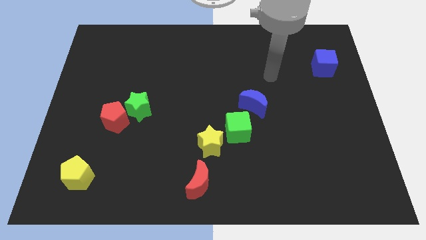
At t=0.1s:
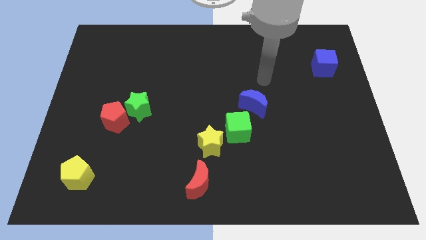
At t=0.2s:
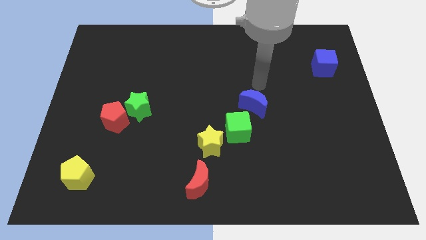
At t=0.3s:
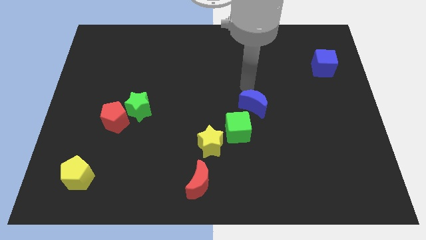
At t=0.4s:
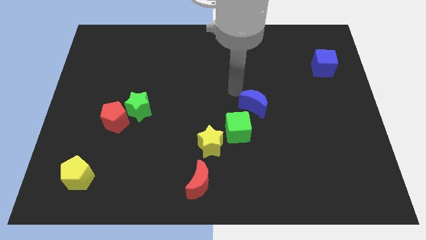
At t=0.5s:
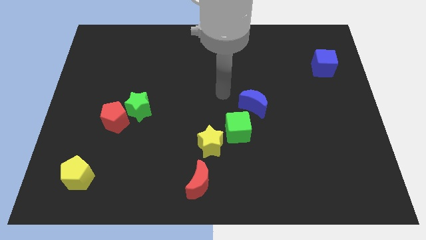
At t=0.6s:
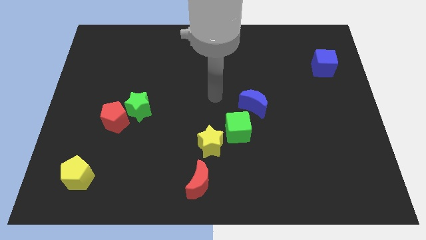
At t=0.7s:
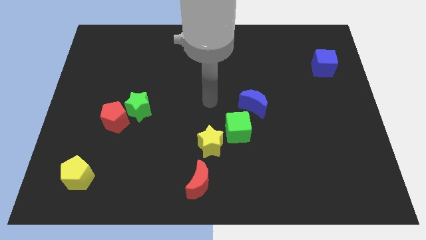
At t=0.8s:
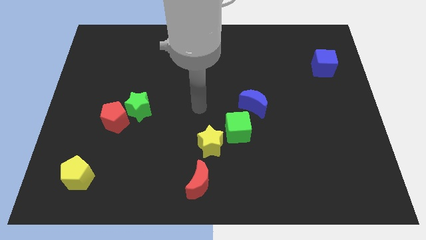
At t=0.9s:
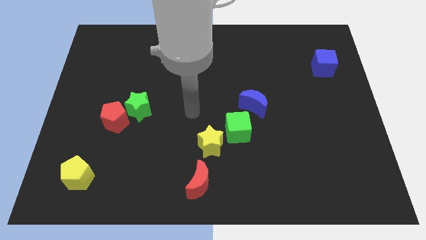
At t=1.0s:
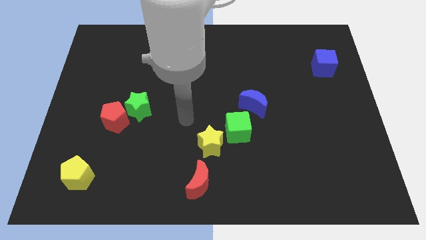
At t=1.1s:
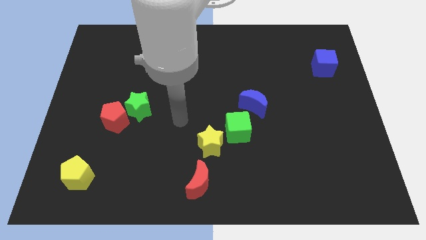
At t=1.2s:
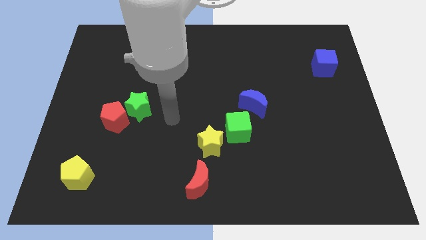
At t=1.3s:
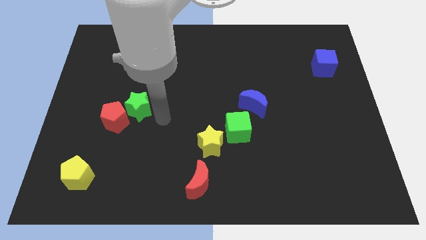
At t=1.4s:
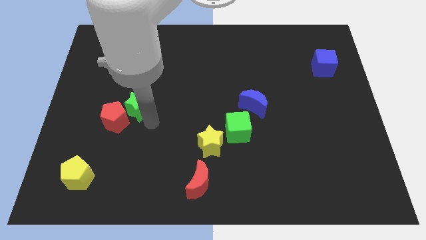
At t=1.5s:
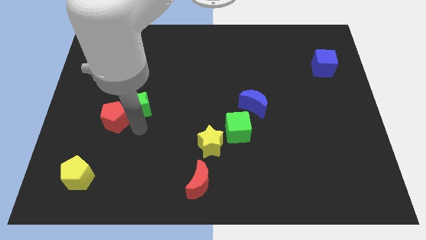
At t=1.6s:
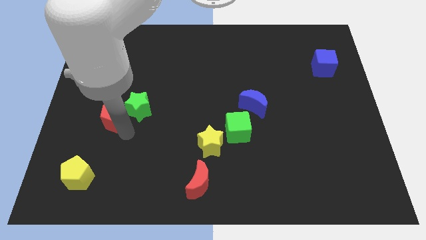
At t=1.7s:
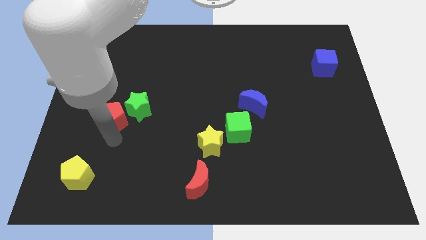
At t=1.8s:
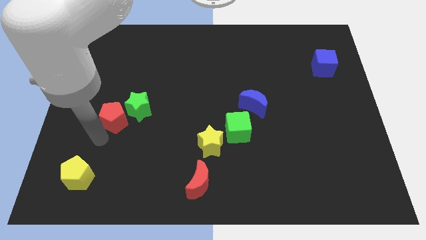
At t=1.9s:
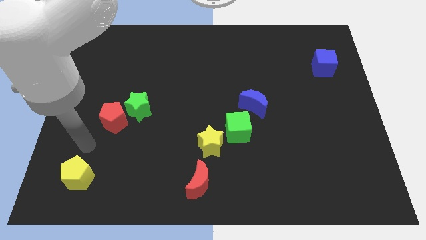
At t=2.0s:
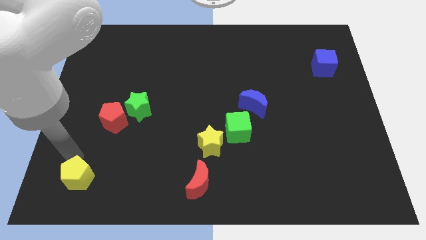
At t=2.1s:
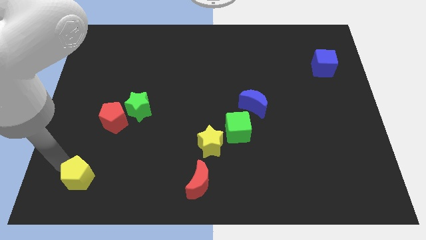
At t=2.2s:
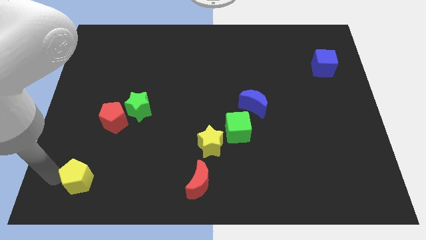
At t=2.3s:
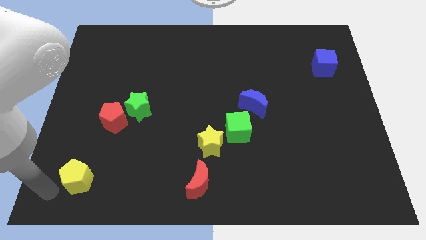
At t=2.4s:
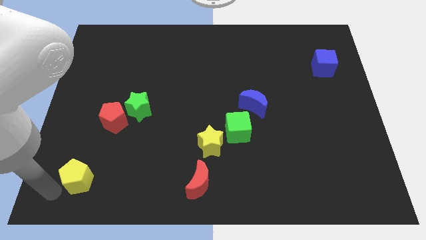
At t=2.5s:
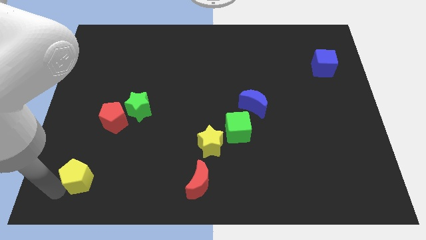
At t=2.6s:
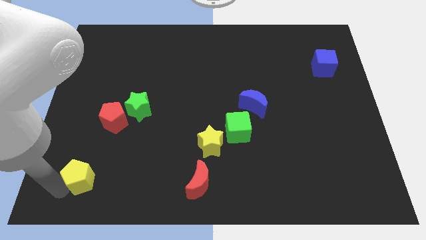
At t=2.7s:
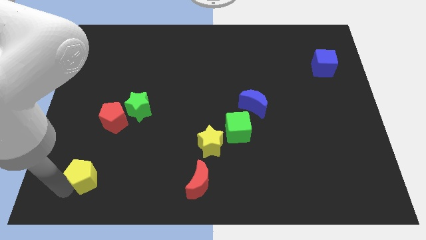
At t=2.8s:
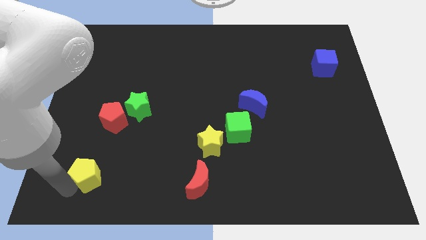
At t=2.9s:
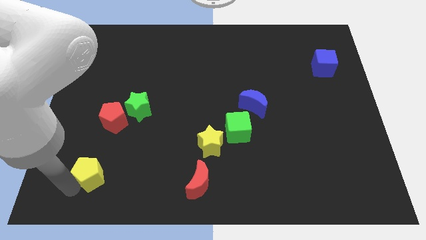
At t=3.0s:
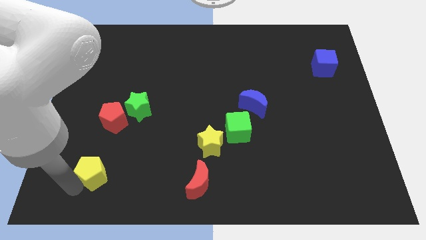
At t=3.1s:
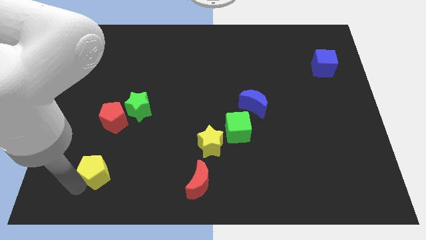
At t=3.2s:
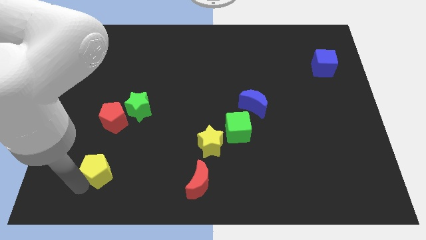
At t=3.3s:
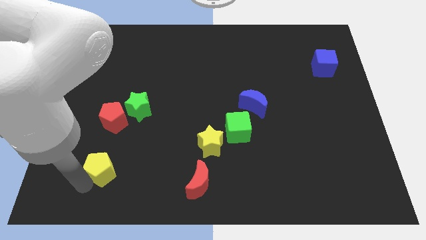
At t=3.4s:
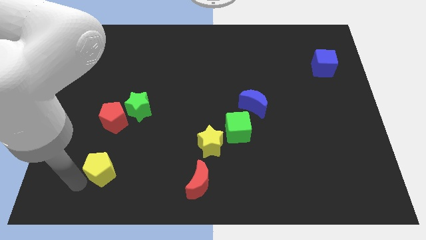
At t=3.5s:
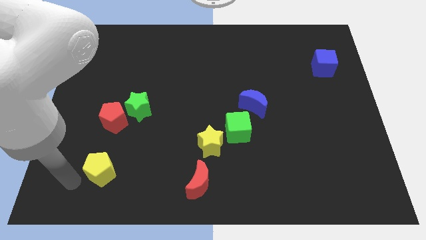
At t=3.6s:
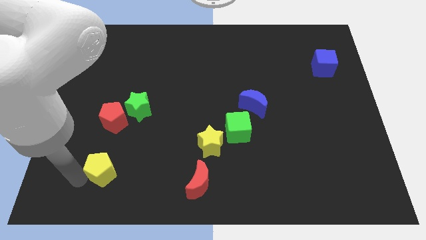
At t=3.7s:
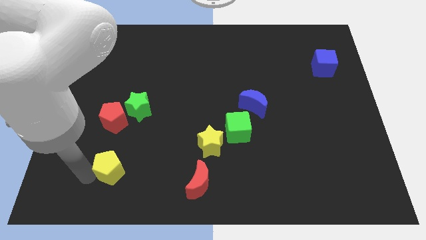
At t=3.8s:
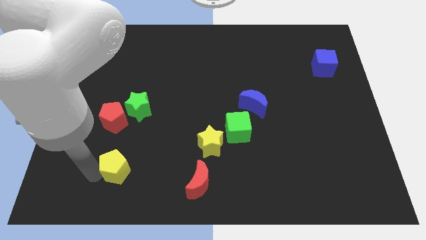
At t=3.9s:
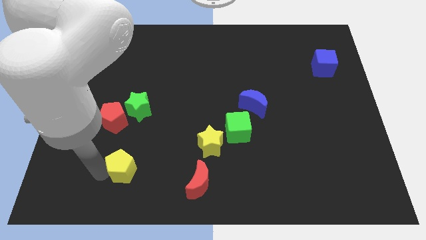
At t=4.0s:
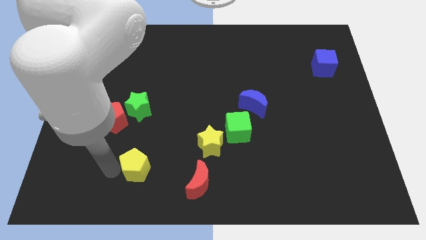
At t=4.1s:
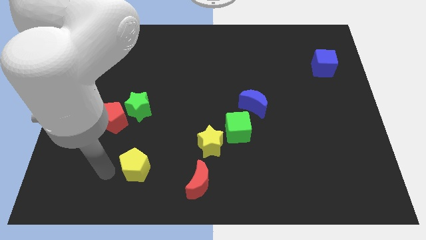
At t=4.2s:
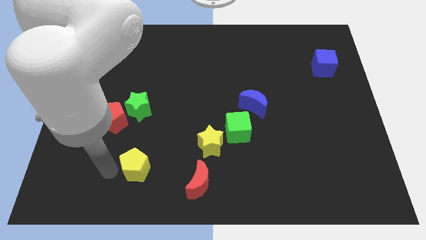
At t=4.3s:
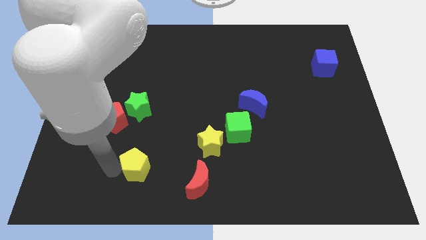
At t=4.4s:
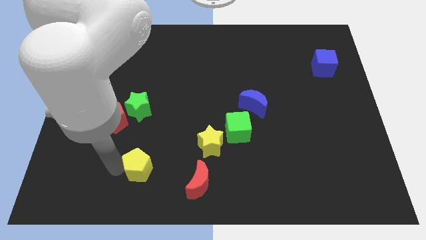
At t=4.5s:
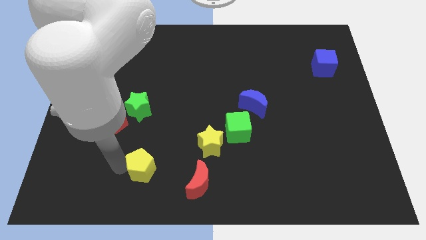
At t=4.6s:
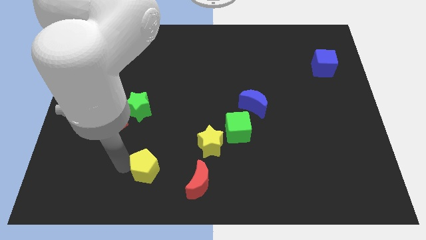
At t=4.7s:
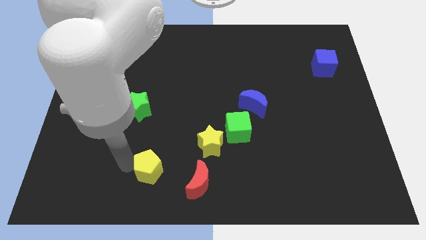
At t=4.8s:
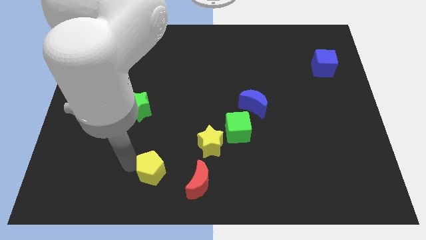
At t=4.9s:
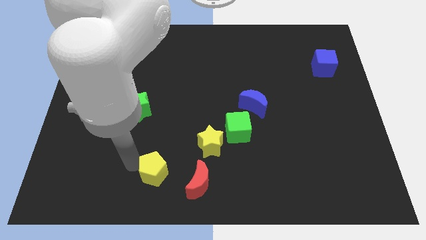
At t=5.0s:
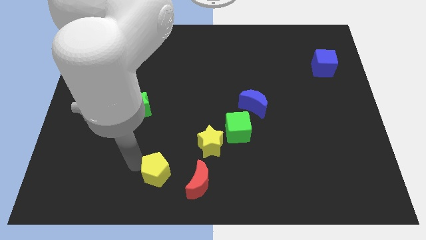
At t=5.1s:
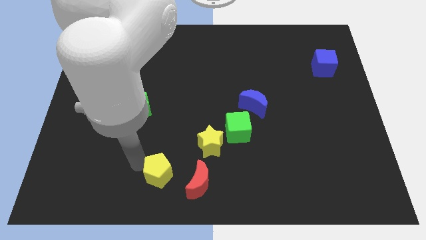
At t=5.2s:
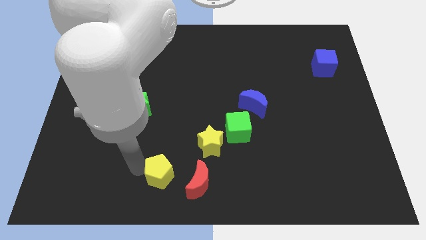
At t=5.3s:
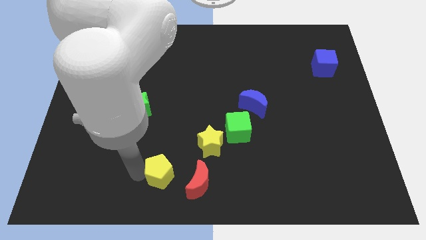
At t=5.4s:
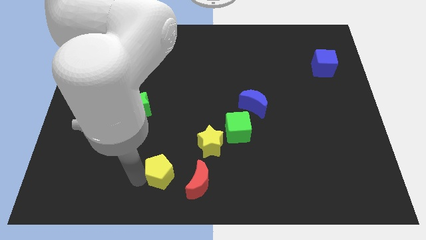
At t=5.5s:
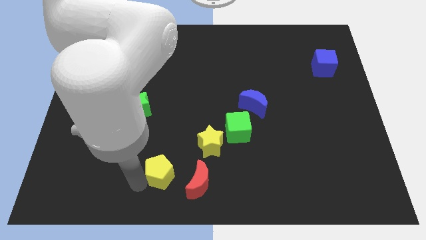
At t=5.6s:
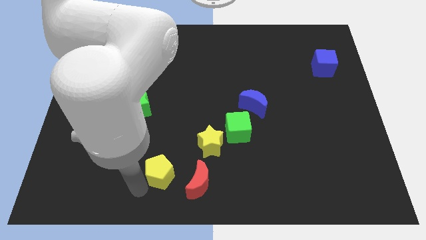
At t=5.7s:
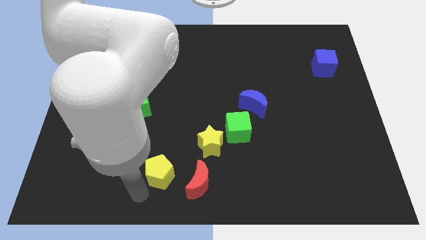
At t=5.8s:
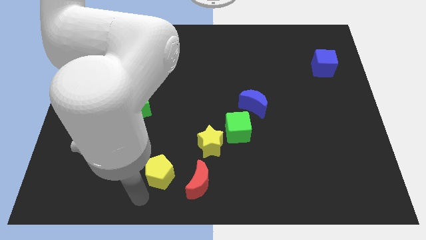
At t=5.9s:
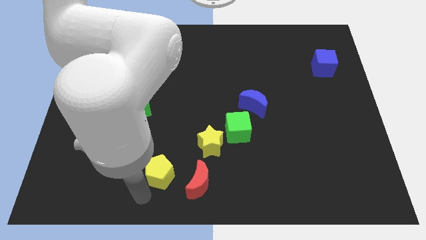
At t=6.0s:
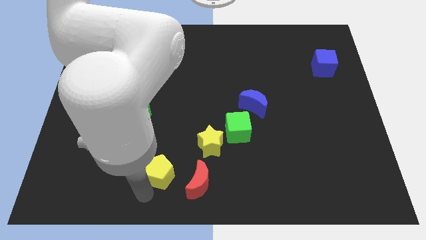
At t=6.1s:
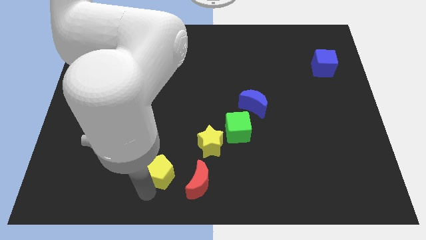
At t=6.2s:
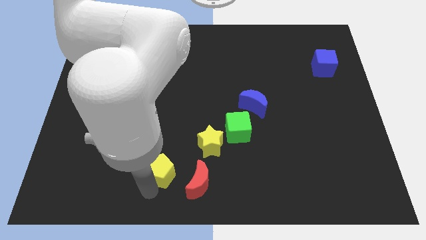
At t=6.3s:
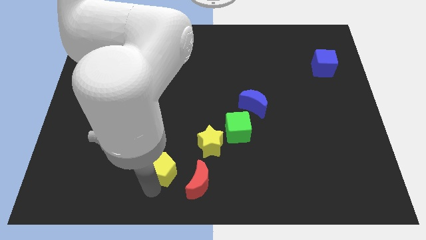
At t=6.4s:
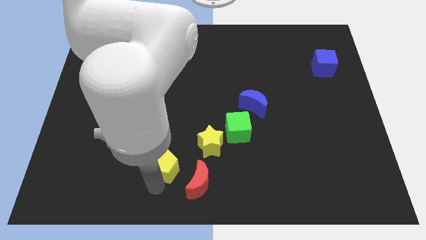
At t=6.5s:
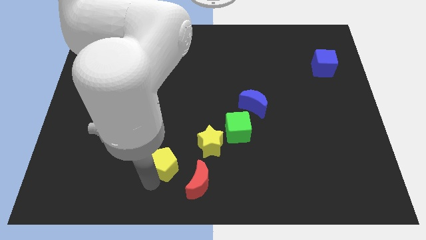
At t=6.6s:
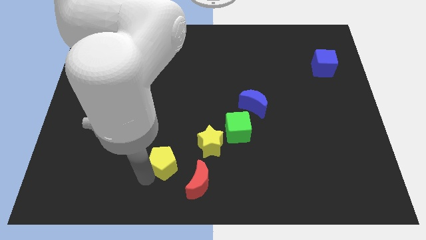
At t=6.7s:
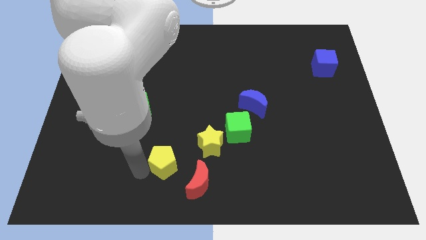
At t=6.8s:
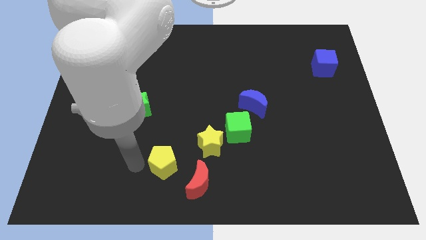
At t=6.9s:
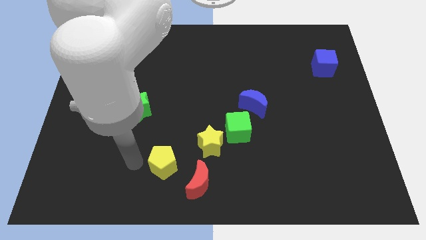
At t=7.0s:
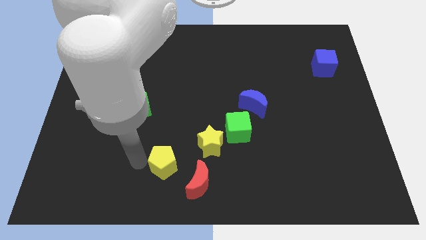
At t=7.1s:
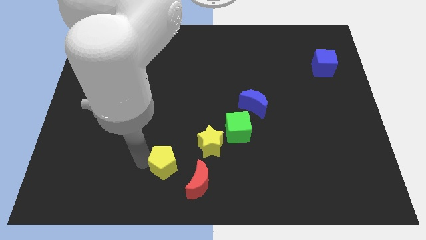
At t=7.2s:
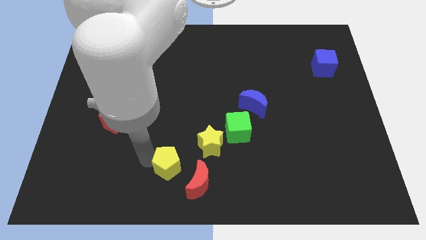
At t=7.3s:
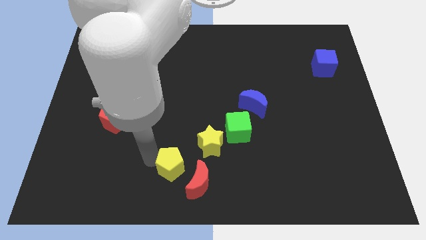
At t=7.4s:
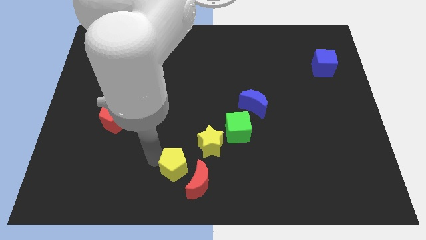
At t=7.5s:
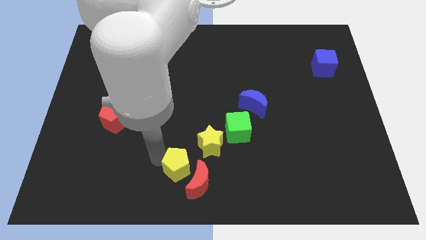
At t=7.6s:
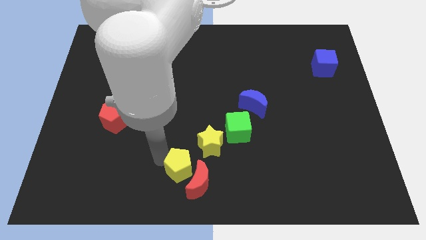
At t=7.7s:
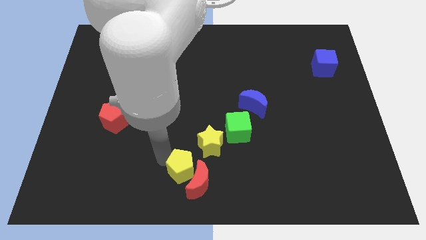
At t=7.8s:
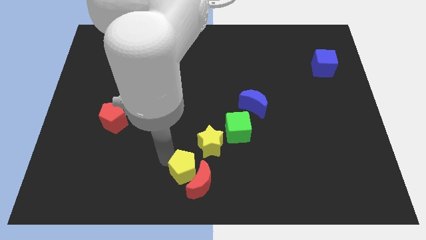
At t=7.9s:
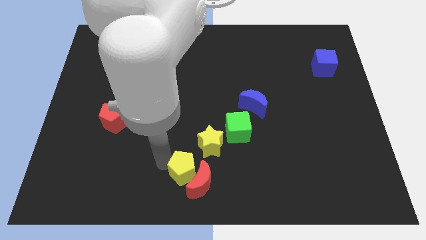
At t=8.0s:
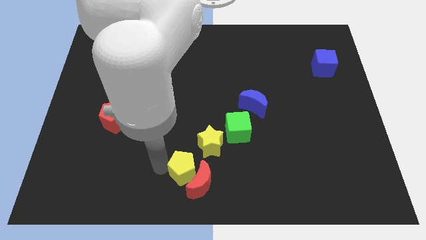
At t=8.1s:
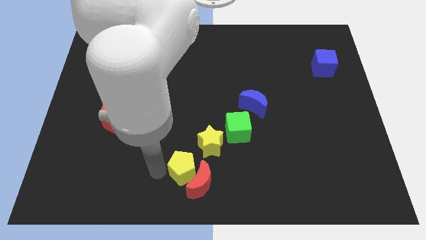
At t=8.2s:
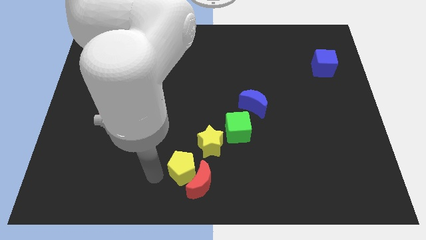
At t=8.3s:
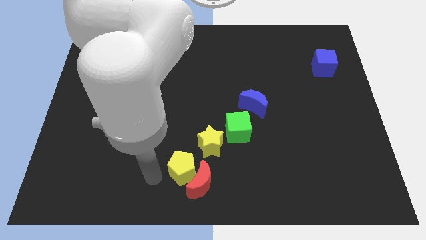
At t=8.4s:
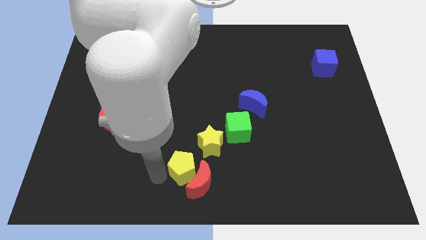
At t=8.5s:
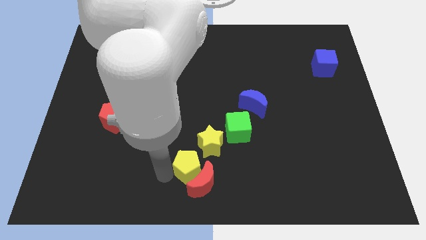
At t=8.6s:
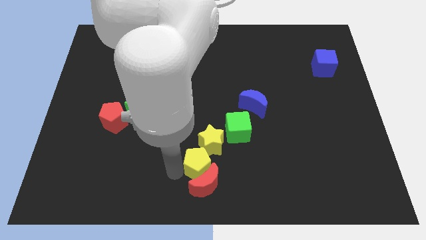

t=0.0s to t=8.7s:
move the yellow pentagon diagonally up and to the right of the red moon
